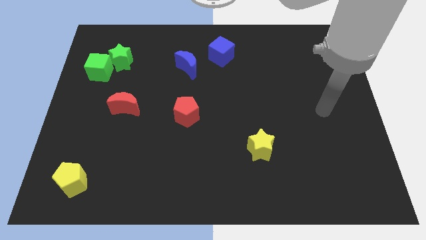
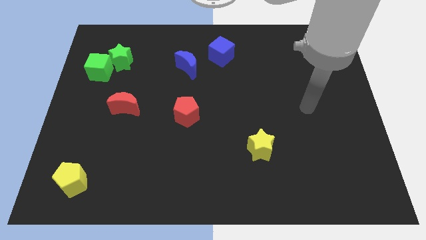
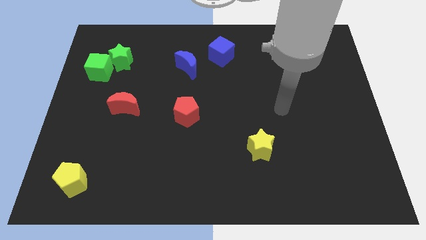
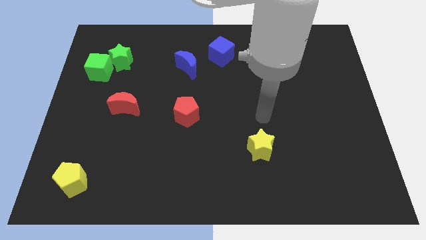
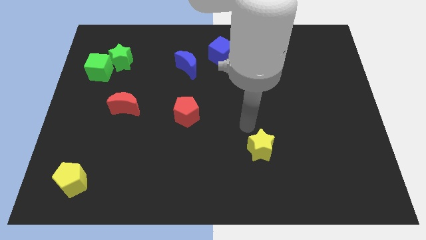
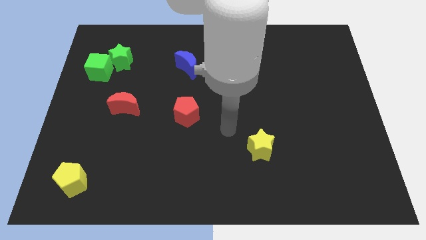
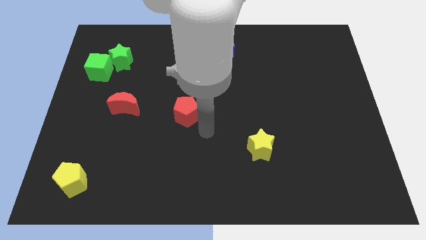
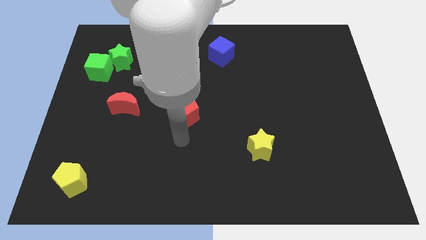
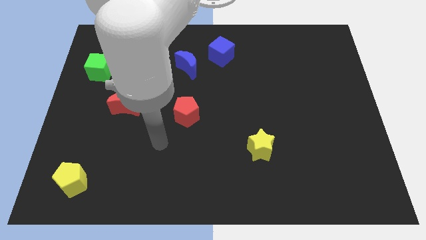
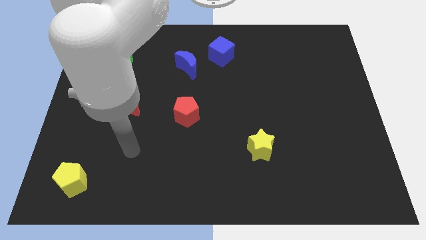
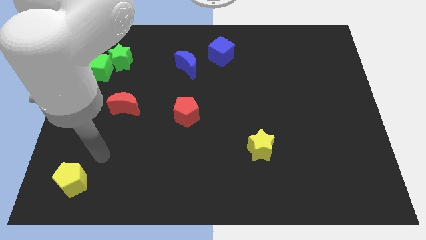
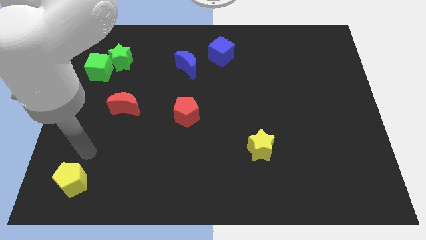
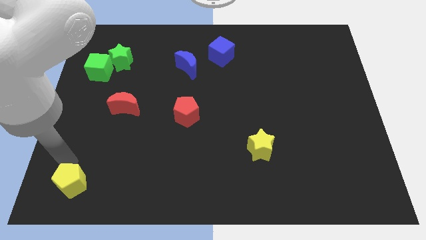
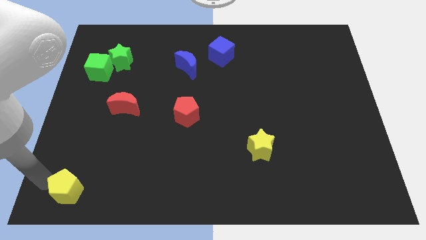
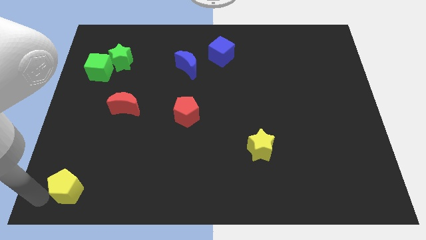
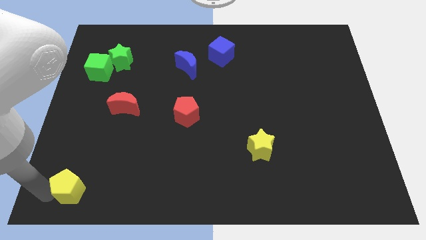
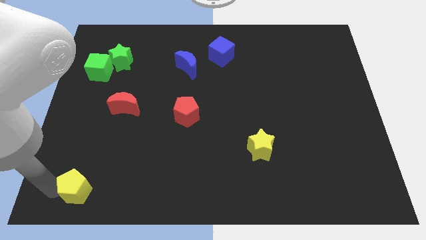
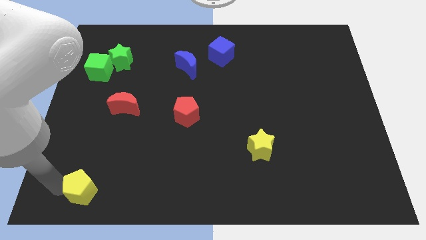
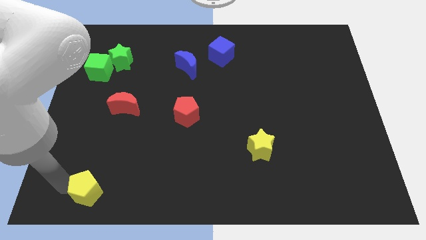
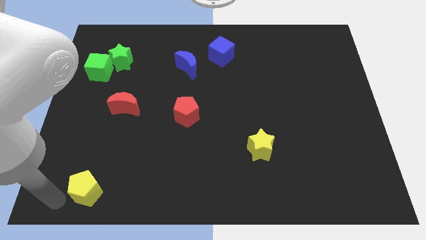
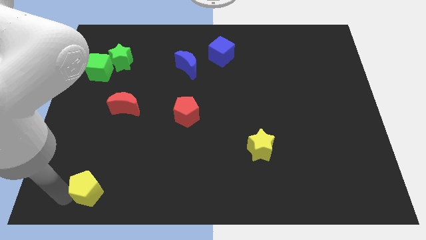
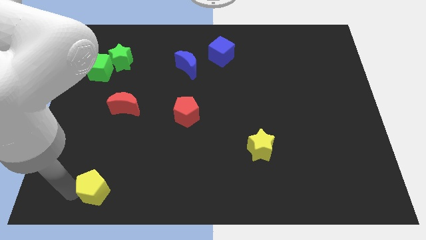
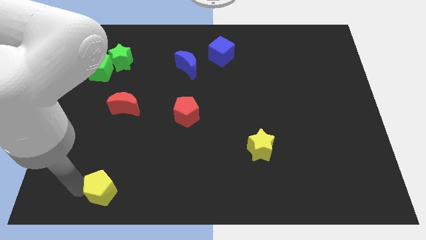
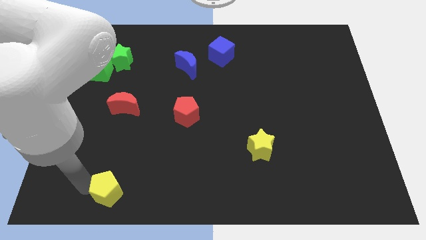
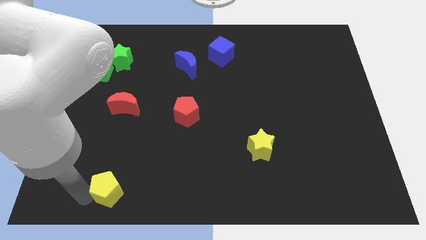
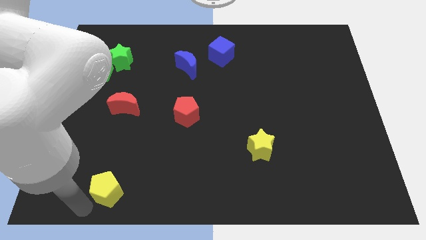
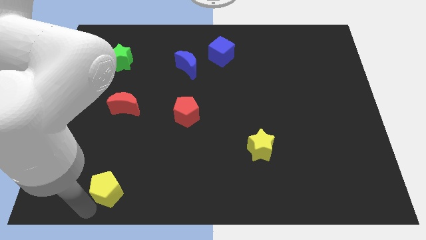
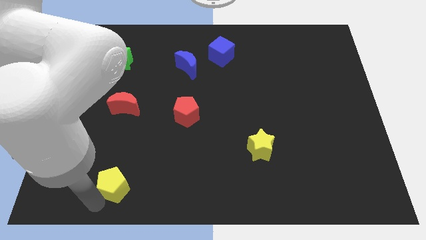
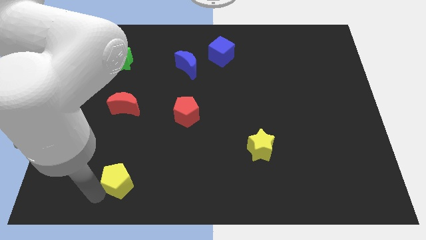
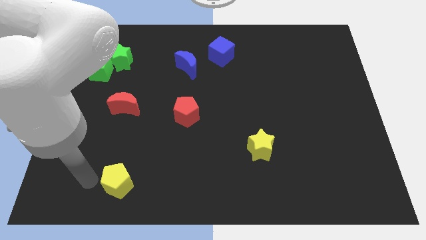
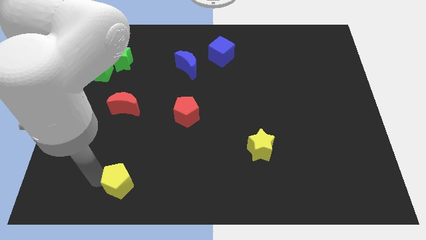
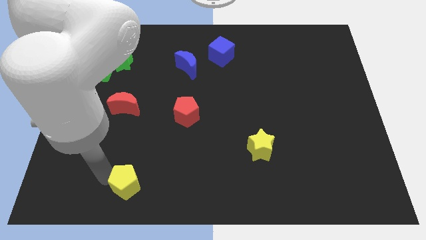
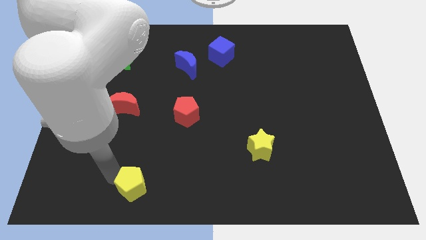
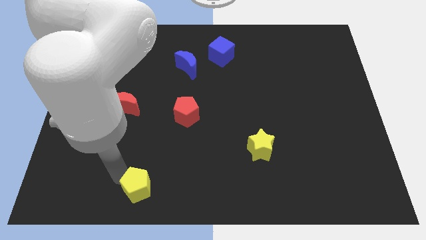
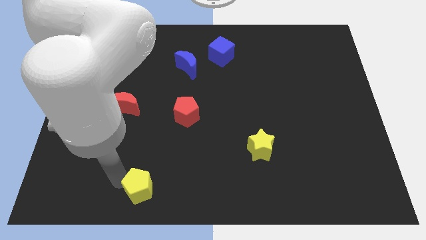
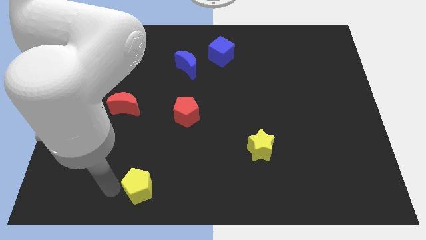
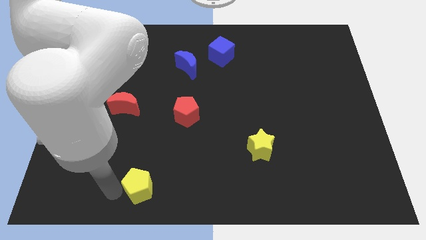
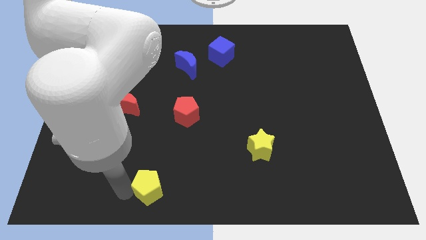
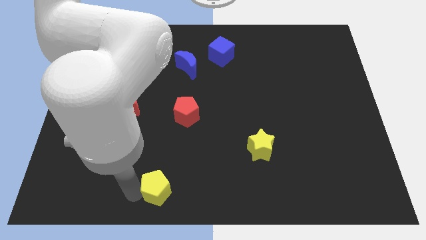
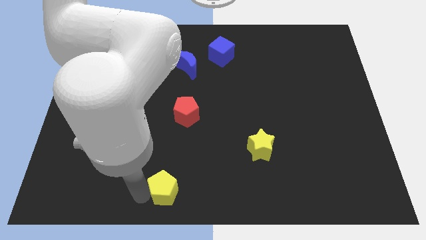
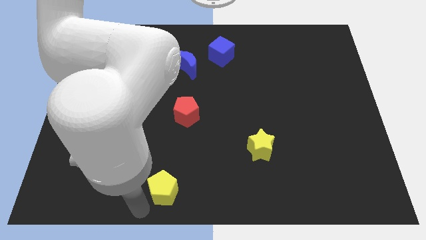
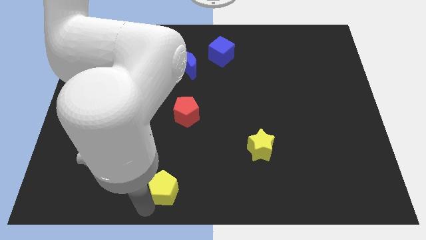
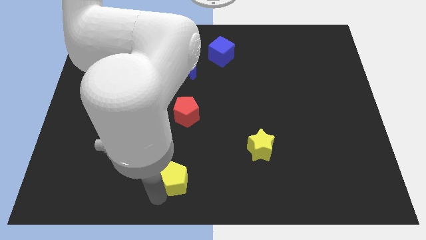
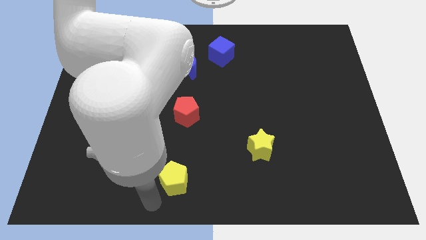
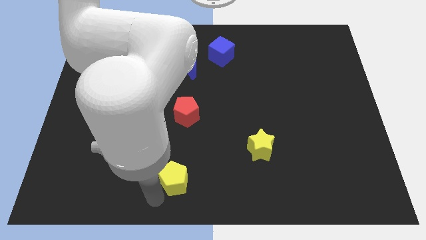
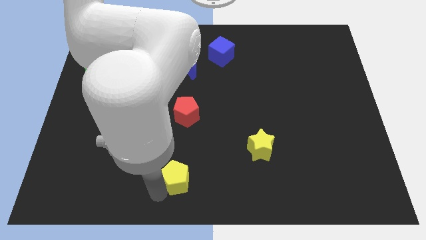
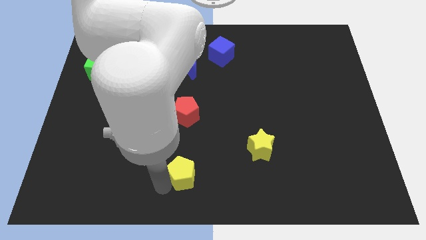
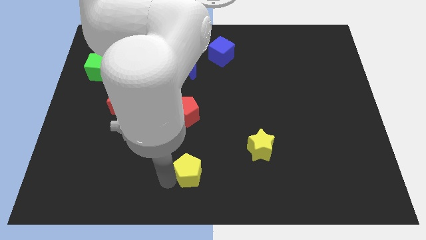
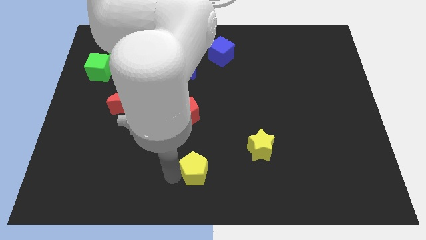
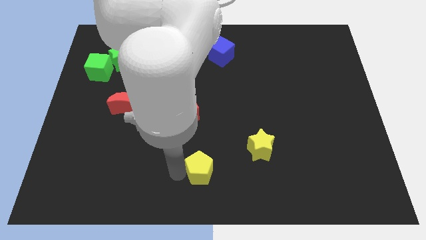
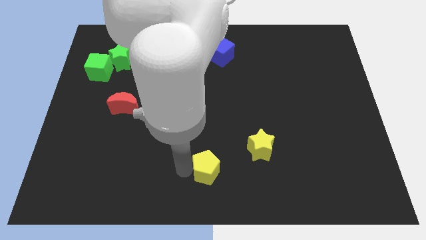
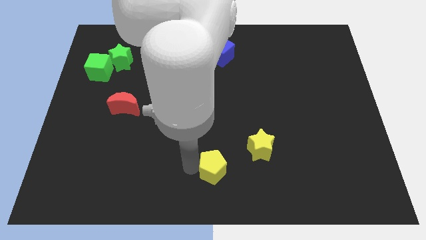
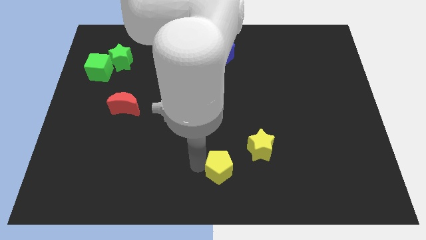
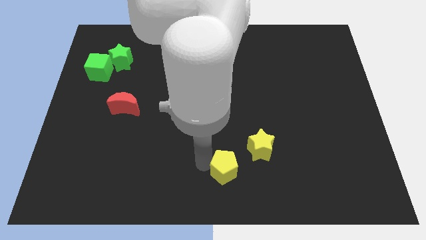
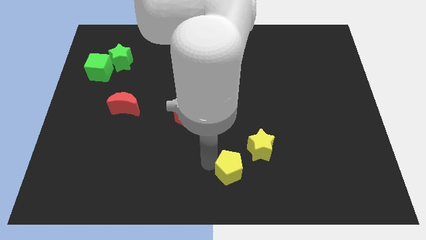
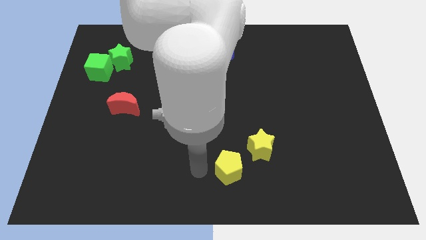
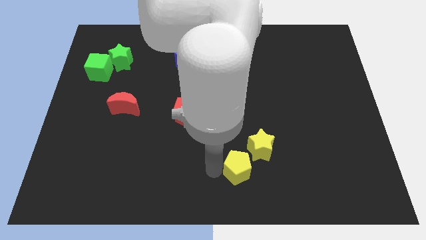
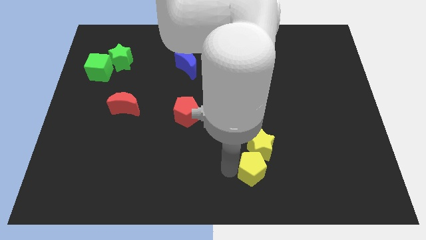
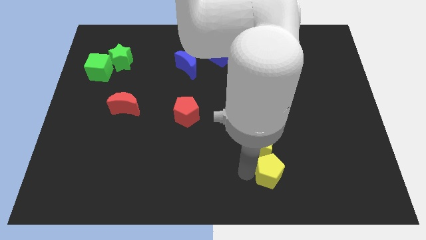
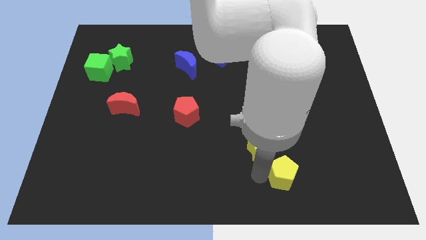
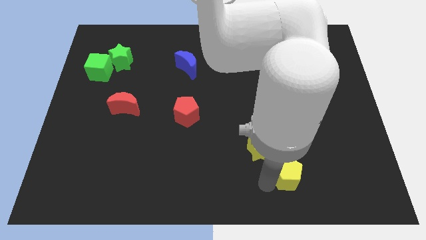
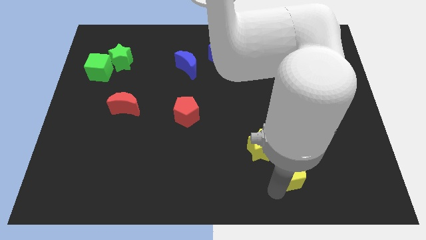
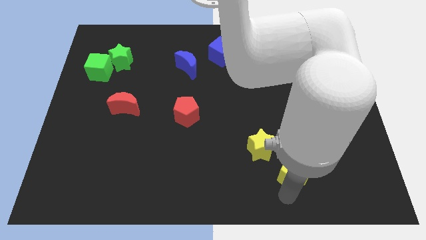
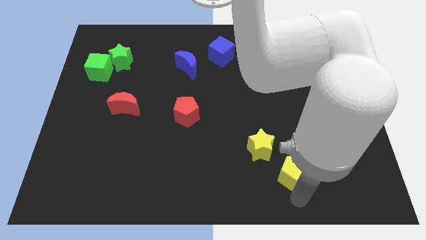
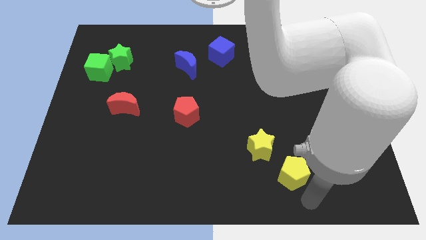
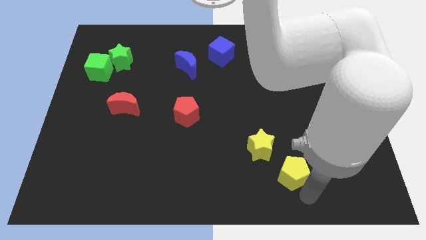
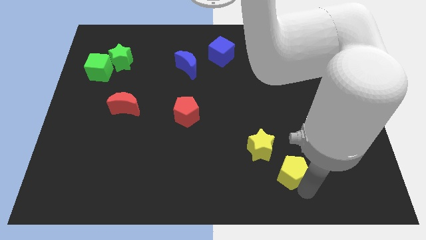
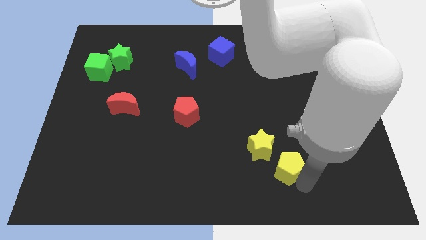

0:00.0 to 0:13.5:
slide the yellow pentagon to the right side of the yellow star

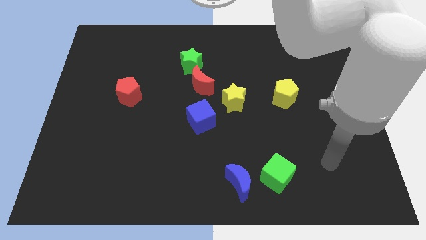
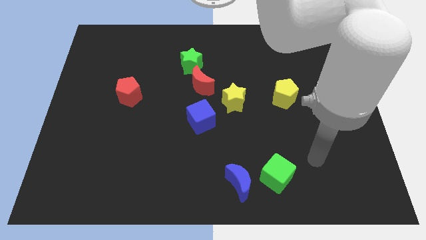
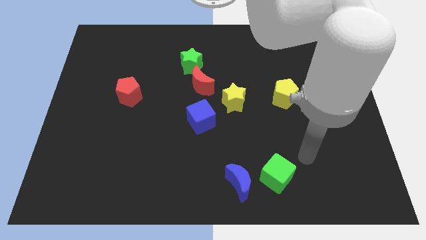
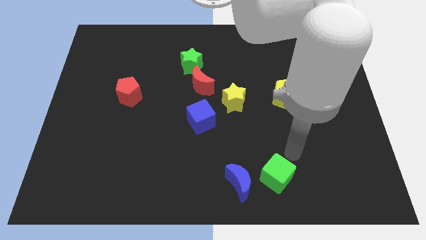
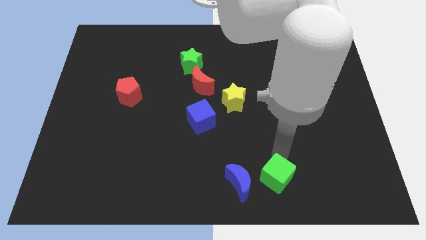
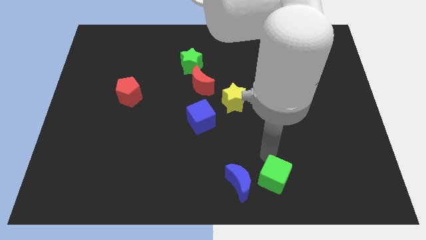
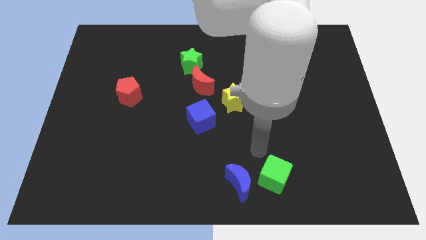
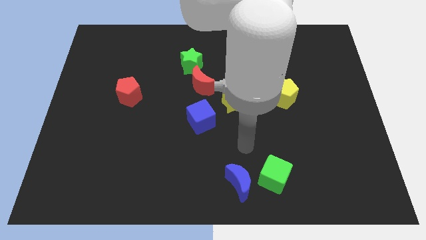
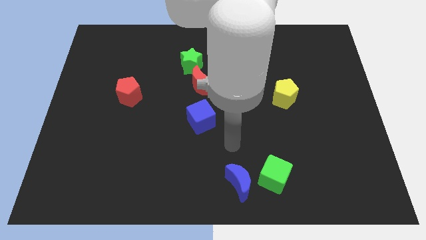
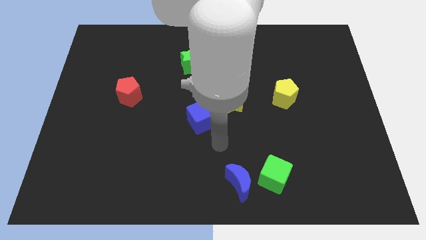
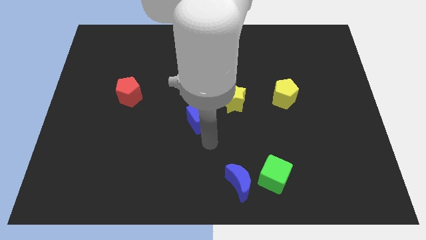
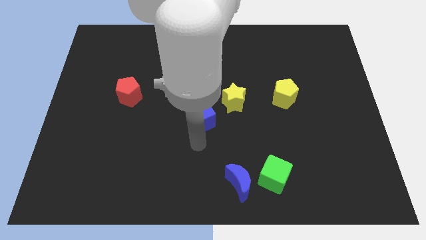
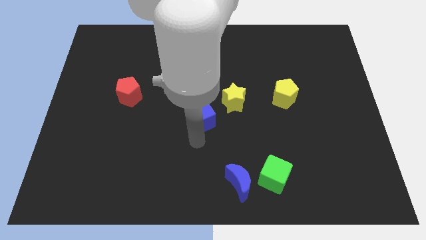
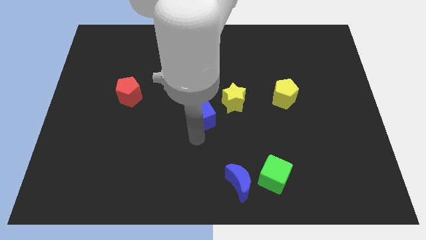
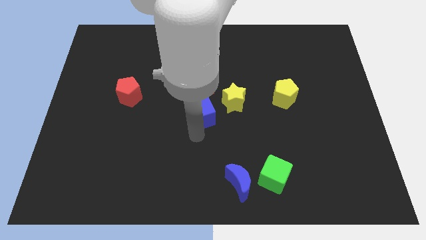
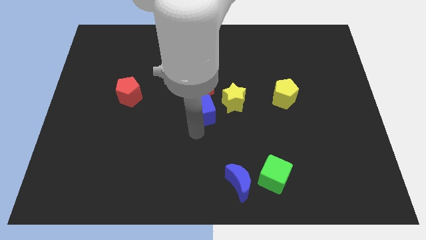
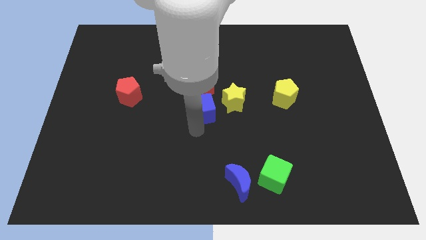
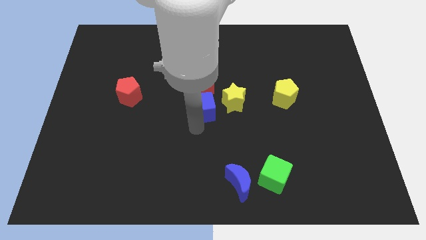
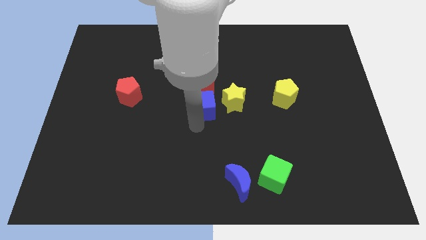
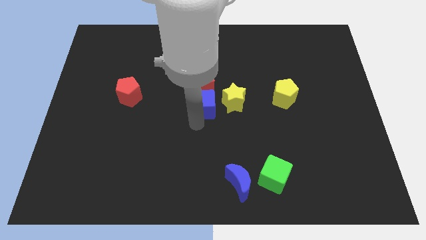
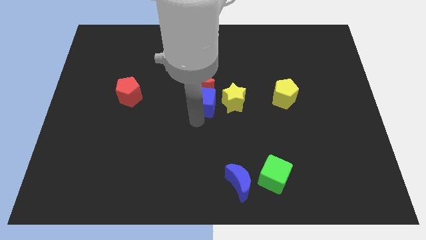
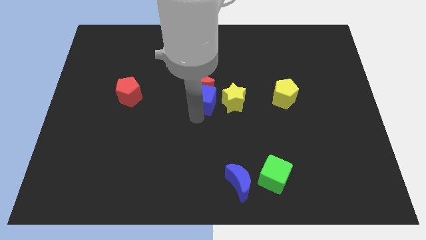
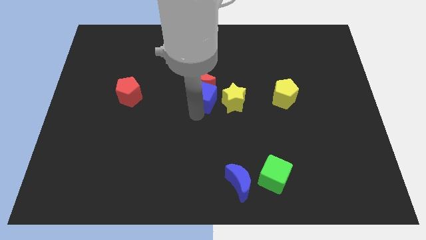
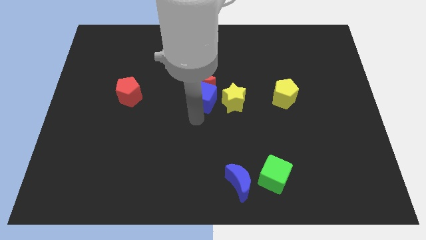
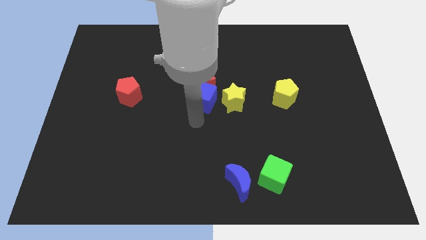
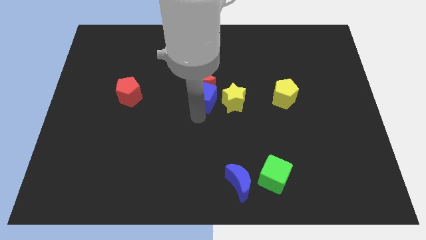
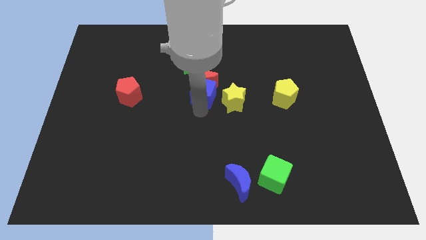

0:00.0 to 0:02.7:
slide the blue cube diagonally down and to the right of the green star
